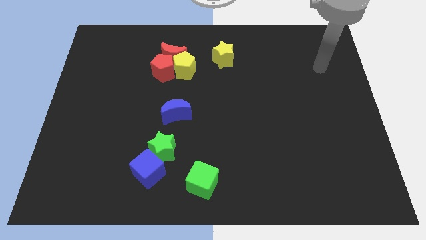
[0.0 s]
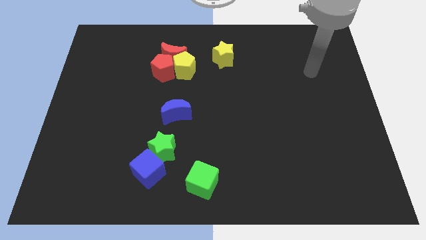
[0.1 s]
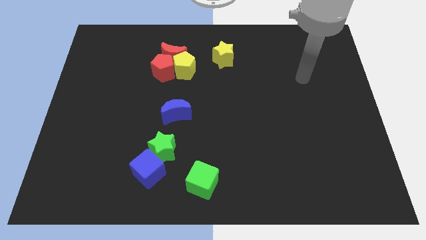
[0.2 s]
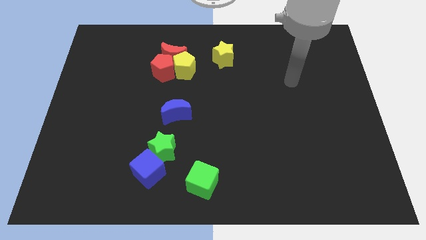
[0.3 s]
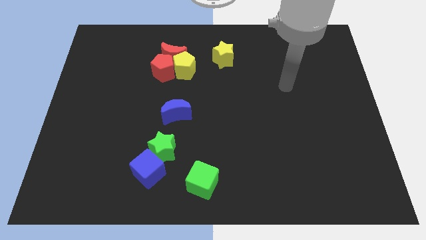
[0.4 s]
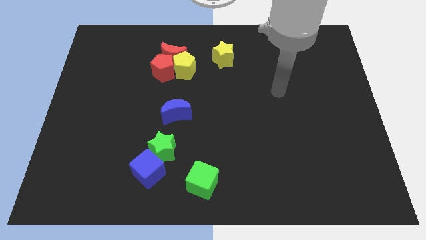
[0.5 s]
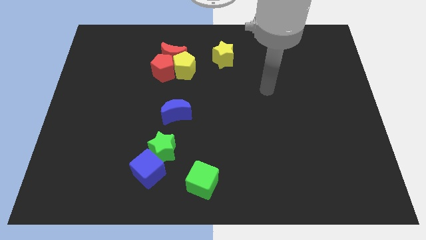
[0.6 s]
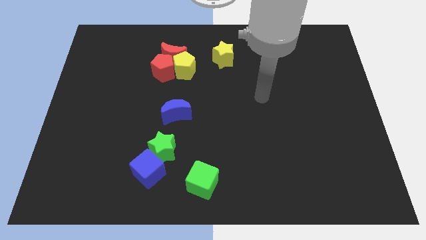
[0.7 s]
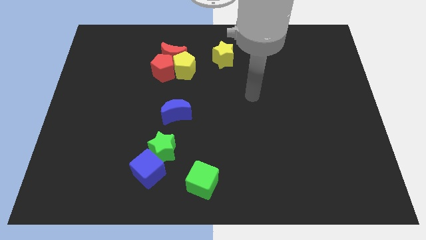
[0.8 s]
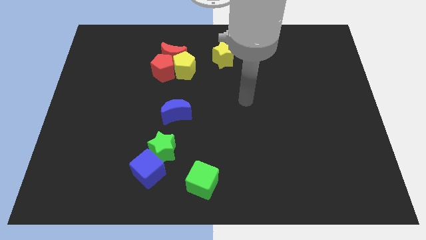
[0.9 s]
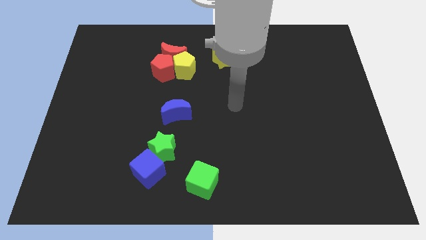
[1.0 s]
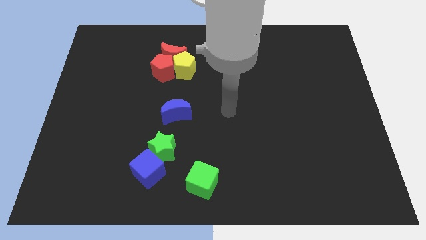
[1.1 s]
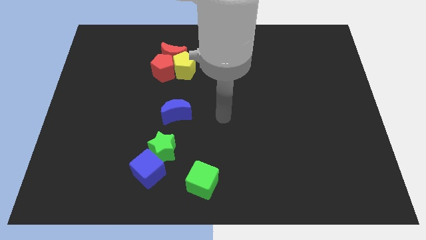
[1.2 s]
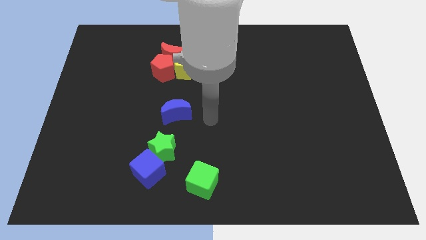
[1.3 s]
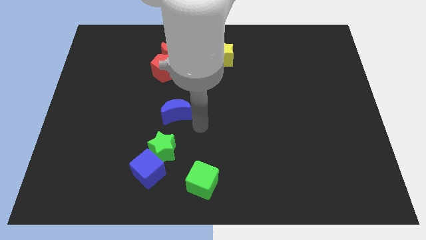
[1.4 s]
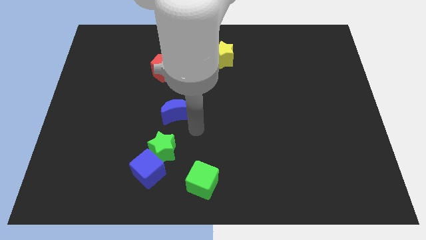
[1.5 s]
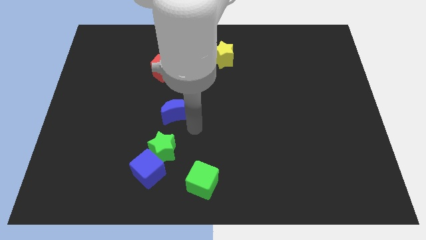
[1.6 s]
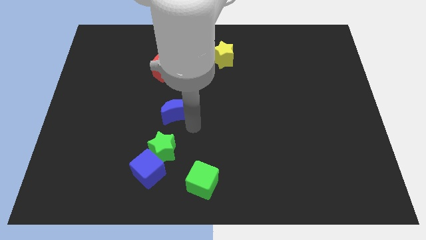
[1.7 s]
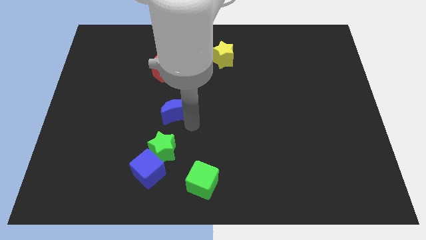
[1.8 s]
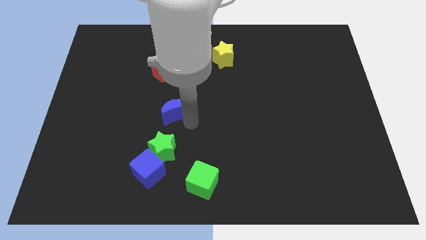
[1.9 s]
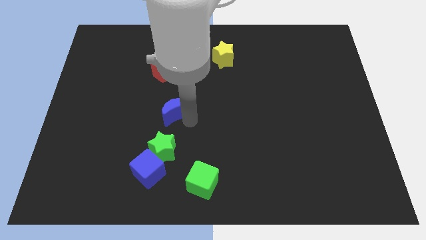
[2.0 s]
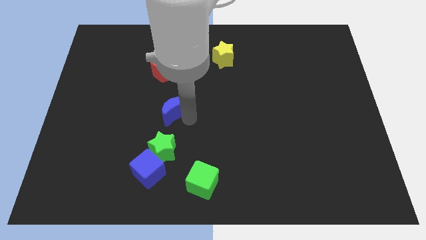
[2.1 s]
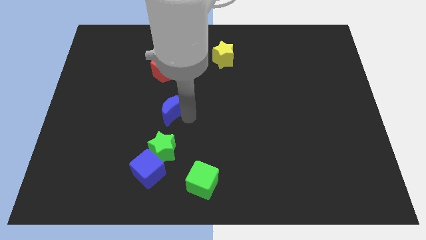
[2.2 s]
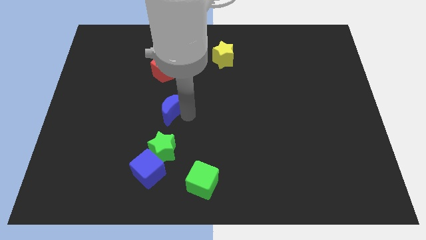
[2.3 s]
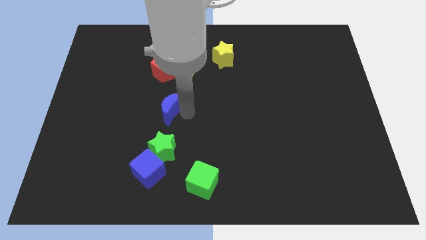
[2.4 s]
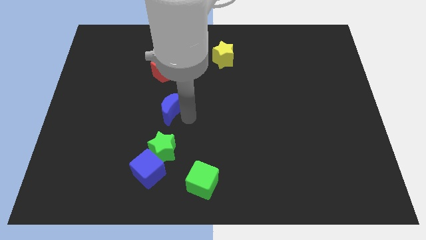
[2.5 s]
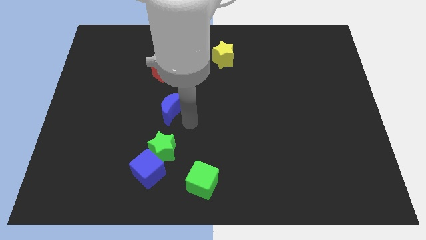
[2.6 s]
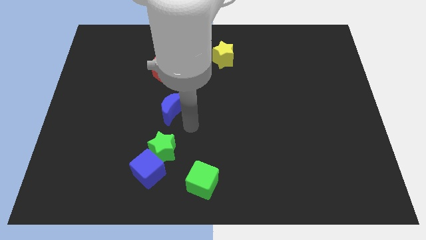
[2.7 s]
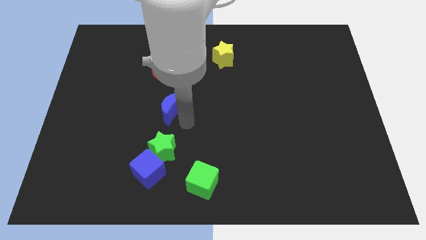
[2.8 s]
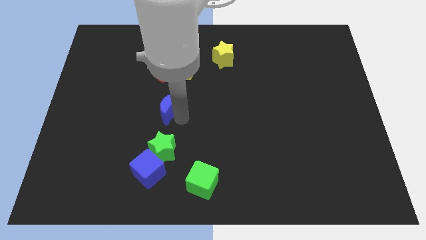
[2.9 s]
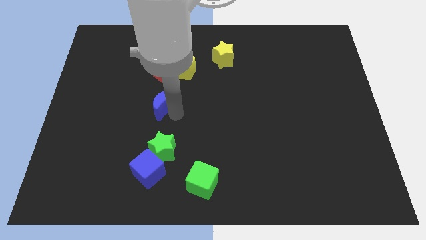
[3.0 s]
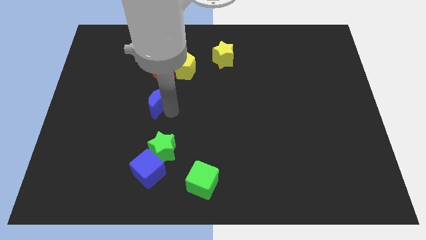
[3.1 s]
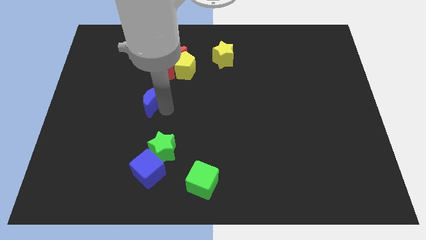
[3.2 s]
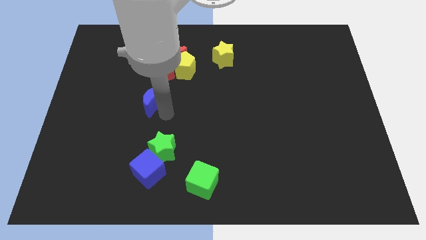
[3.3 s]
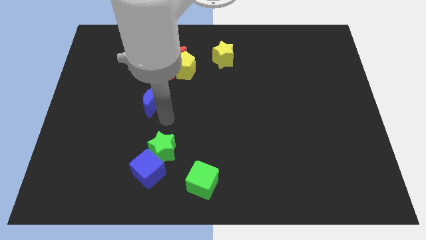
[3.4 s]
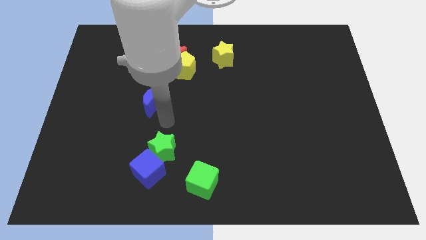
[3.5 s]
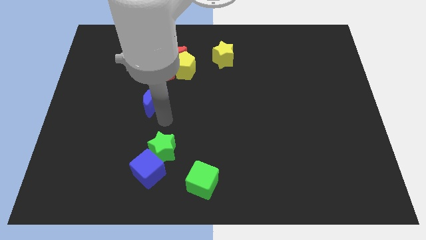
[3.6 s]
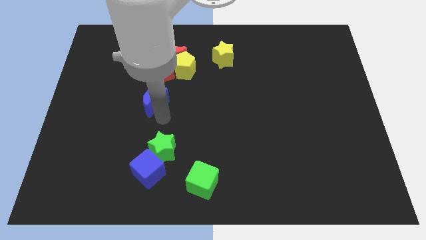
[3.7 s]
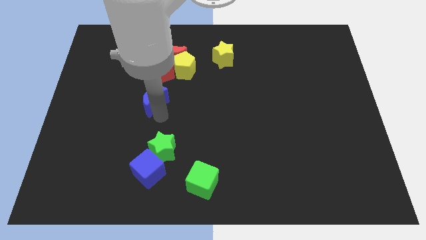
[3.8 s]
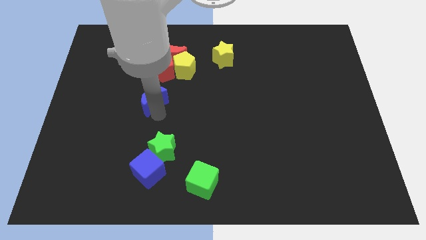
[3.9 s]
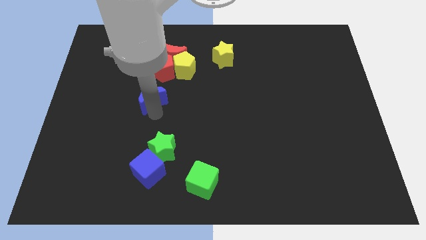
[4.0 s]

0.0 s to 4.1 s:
move the blue moon upwards and then left a bit

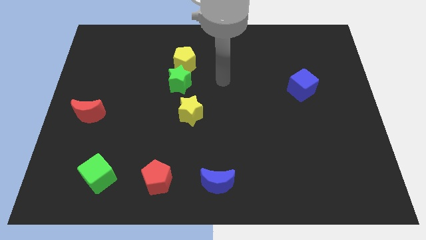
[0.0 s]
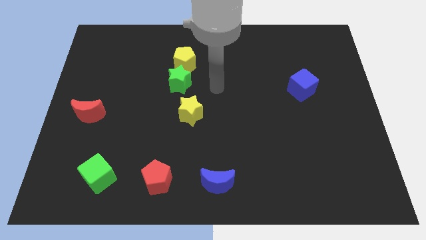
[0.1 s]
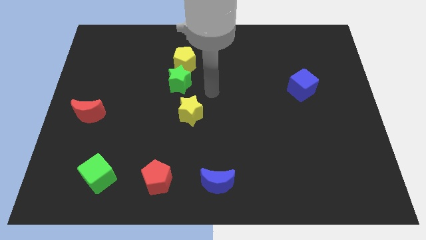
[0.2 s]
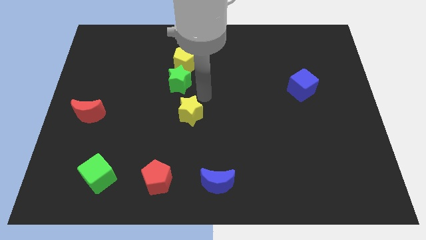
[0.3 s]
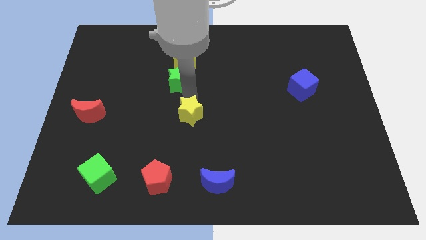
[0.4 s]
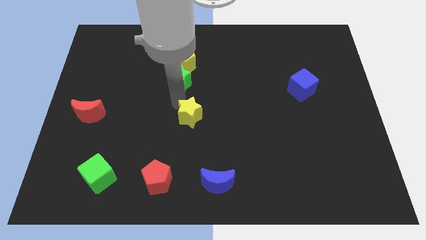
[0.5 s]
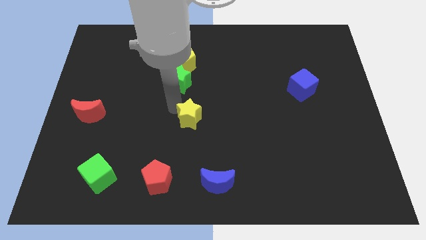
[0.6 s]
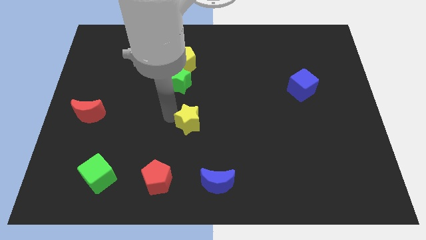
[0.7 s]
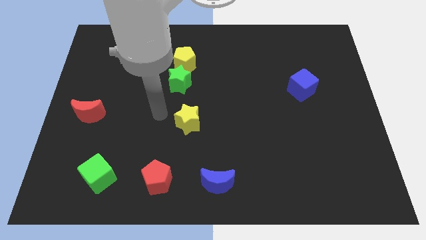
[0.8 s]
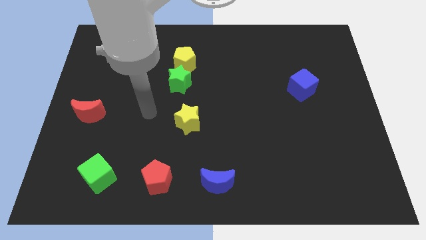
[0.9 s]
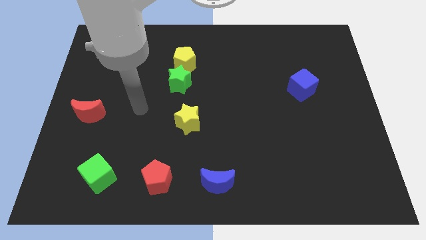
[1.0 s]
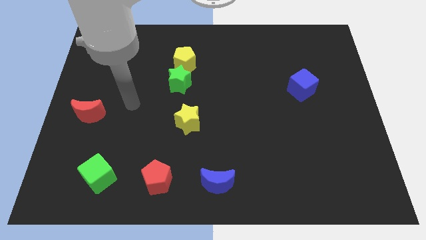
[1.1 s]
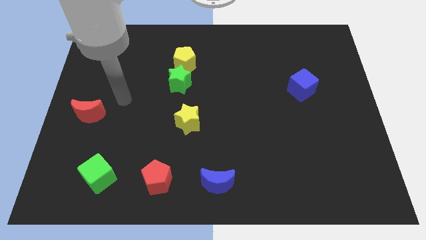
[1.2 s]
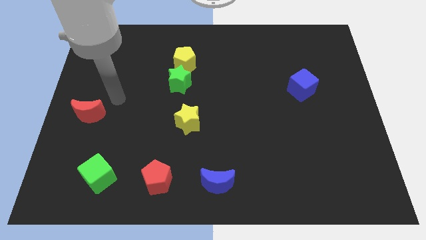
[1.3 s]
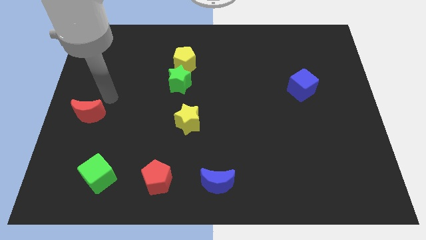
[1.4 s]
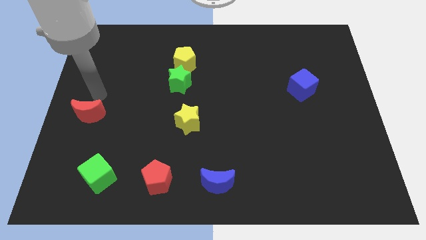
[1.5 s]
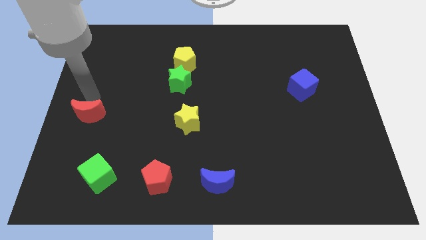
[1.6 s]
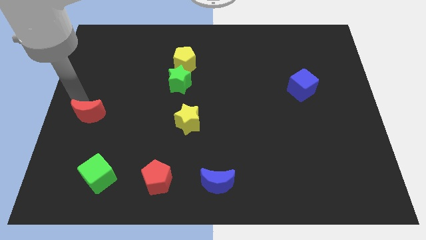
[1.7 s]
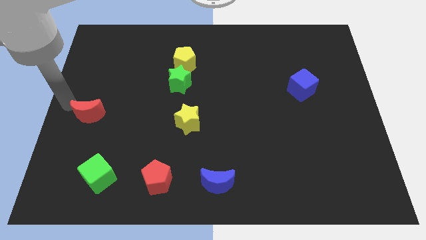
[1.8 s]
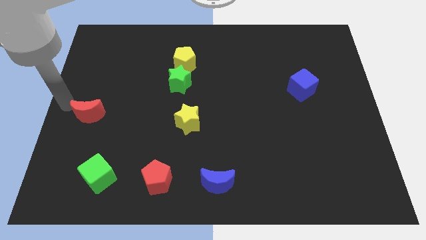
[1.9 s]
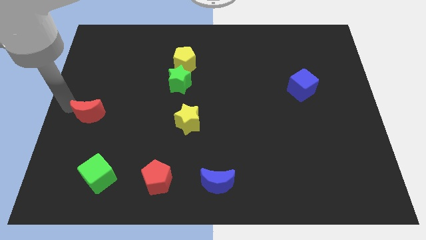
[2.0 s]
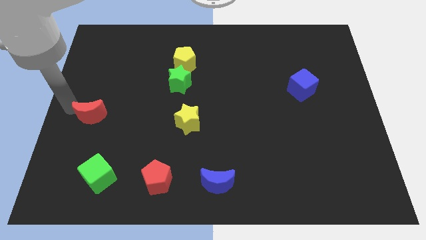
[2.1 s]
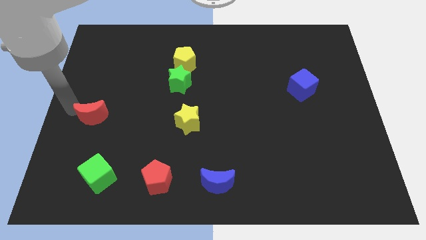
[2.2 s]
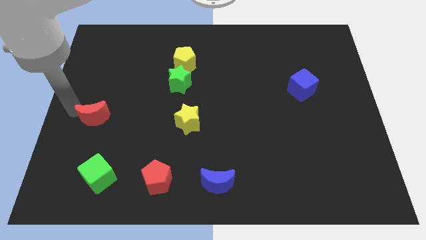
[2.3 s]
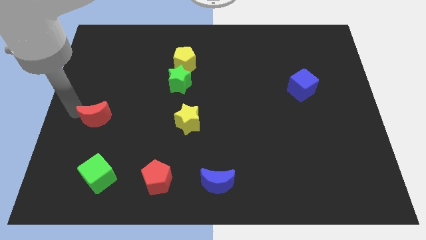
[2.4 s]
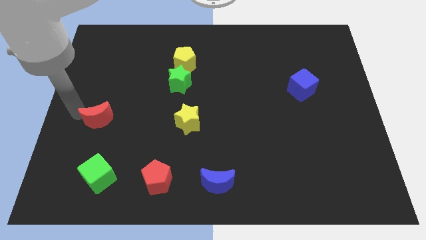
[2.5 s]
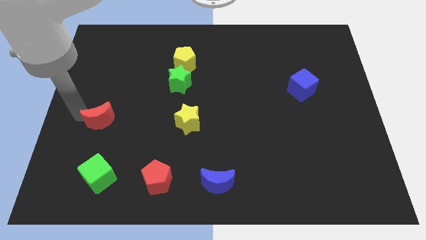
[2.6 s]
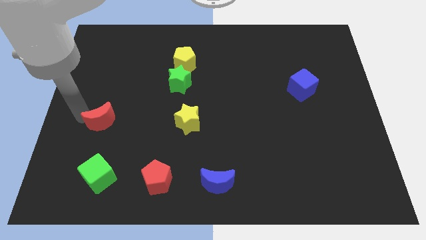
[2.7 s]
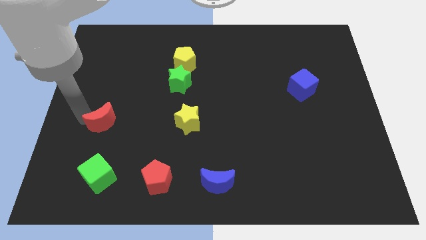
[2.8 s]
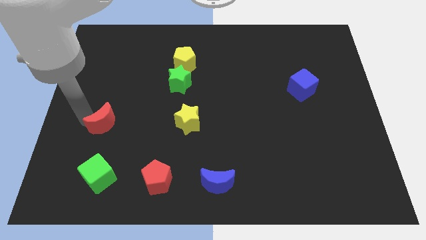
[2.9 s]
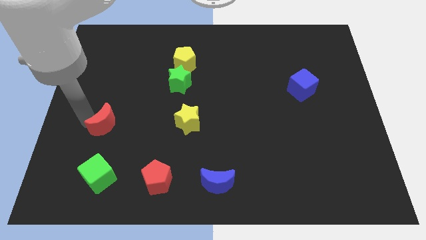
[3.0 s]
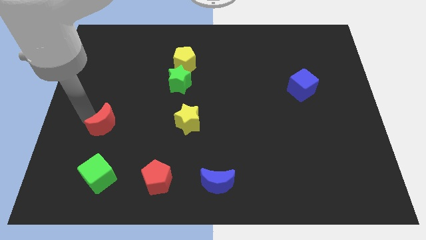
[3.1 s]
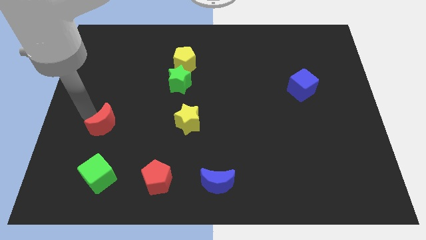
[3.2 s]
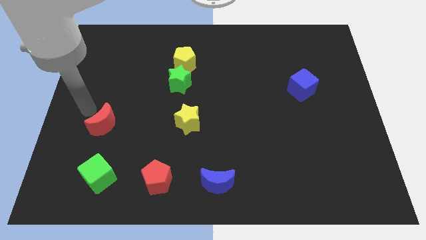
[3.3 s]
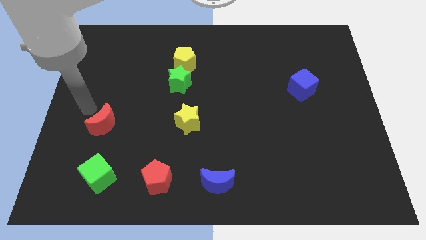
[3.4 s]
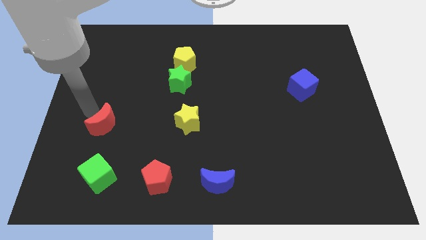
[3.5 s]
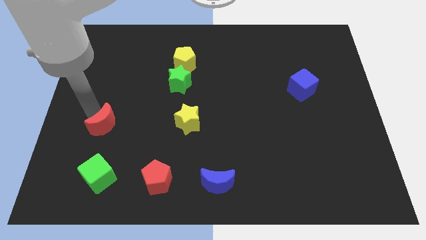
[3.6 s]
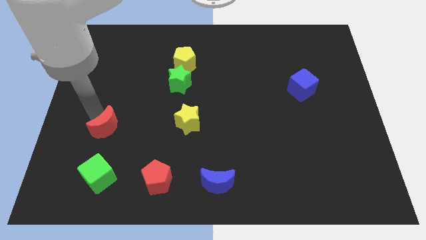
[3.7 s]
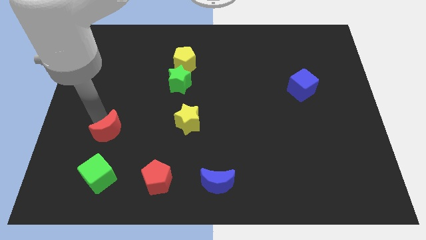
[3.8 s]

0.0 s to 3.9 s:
push the red moon down and then right slightly
